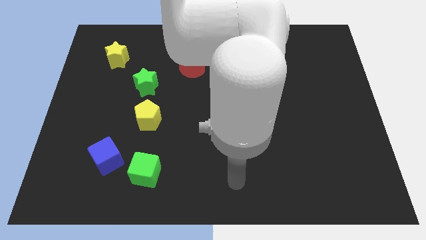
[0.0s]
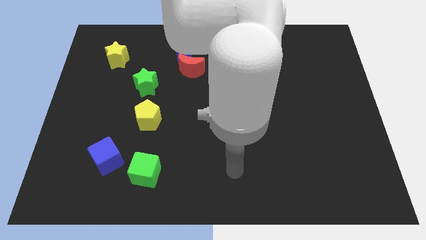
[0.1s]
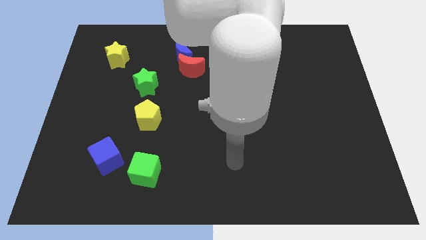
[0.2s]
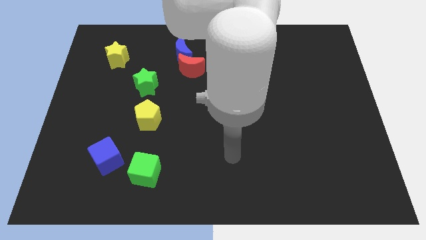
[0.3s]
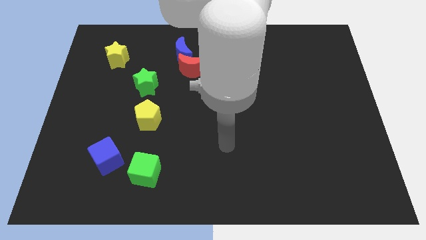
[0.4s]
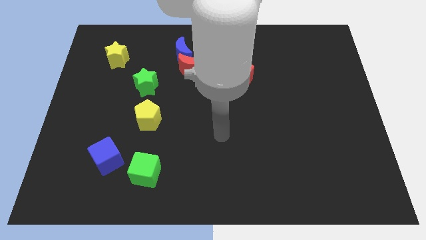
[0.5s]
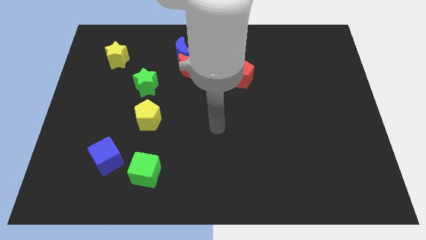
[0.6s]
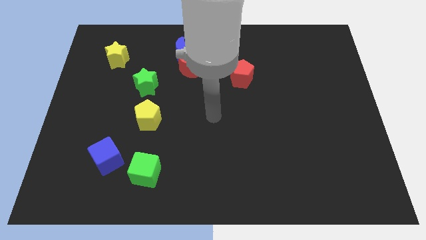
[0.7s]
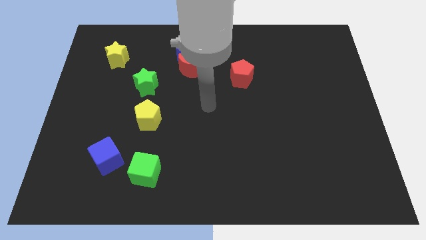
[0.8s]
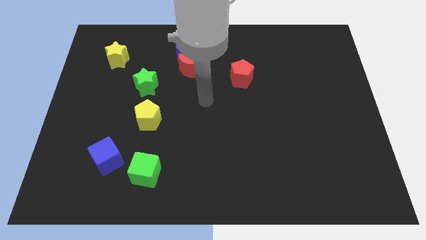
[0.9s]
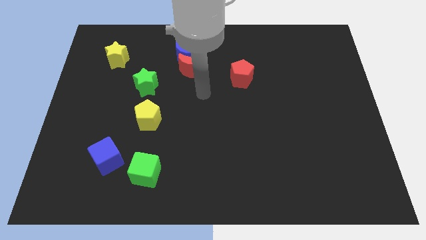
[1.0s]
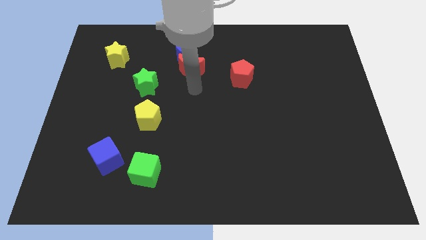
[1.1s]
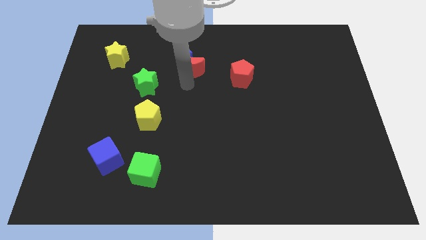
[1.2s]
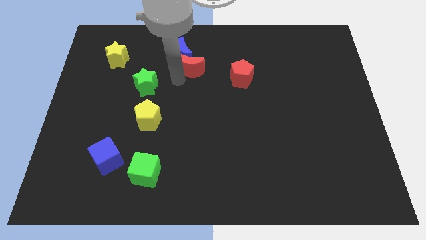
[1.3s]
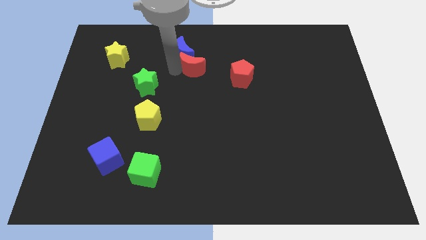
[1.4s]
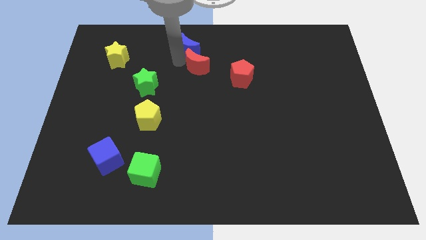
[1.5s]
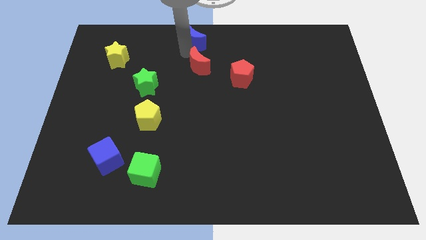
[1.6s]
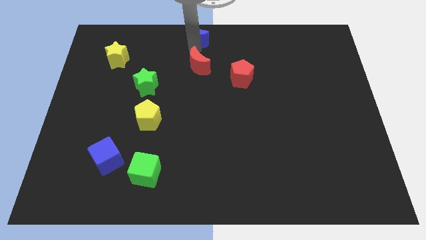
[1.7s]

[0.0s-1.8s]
pull the red moon apart from the blue moon

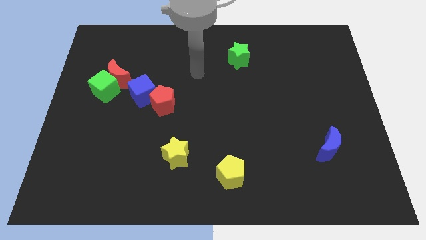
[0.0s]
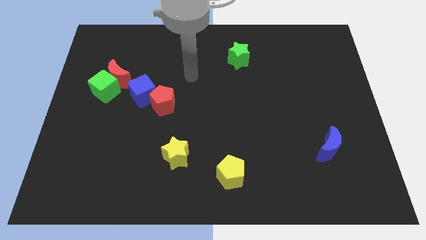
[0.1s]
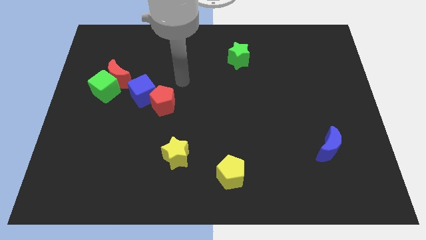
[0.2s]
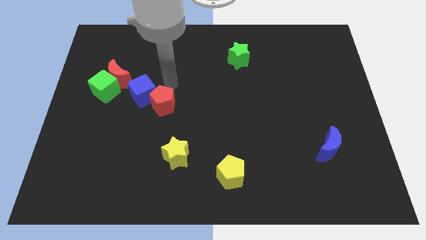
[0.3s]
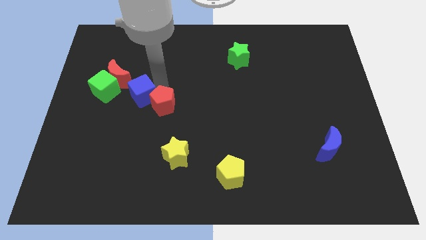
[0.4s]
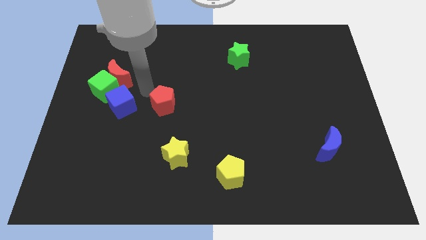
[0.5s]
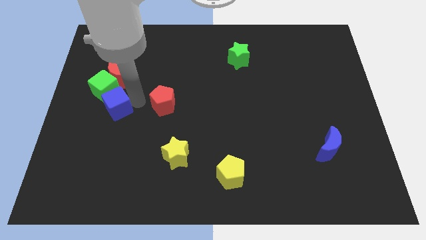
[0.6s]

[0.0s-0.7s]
separate the red pentagon from the blue cube

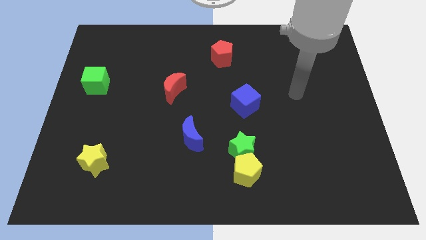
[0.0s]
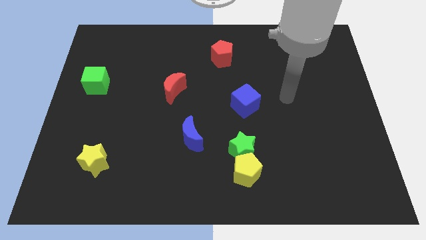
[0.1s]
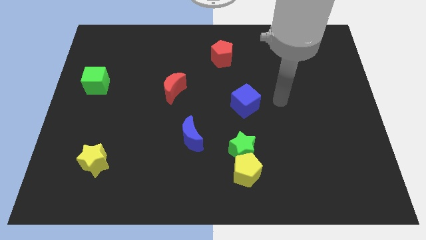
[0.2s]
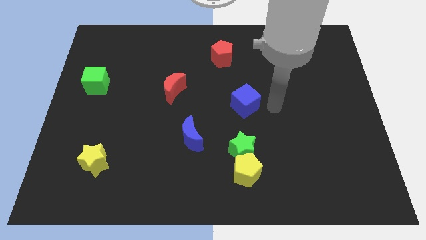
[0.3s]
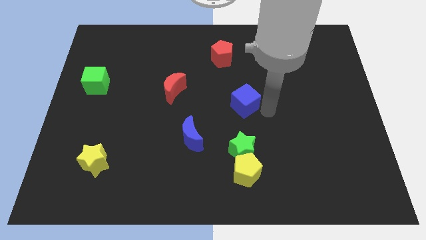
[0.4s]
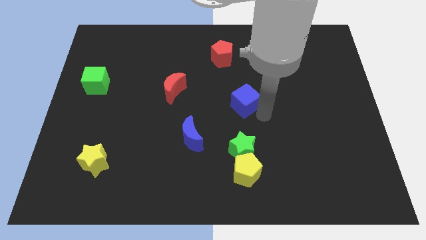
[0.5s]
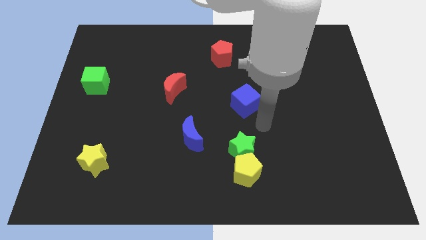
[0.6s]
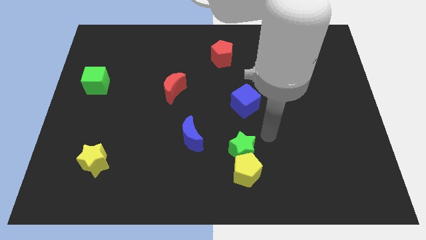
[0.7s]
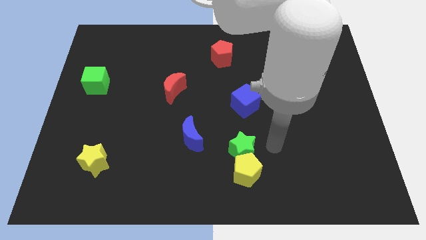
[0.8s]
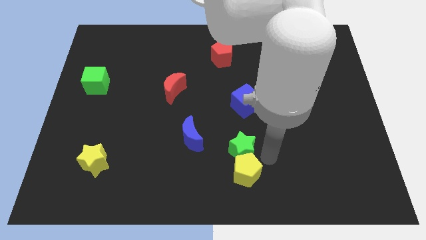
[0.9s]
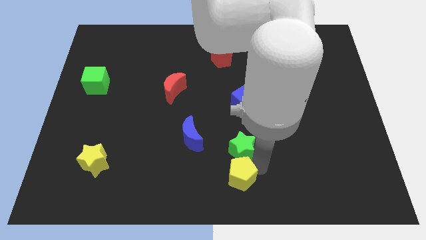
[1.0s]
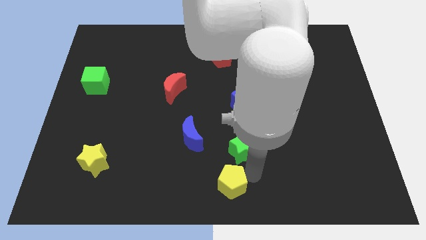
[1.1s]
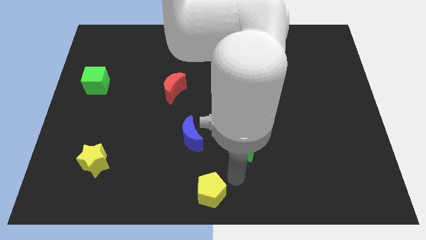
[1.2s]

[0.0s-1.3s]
pull the green star apart from the yellow pentagon

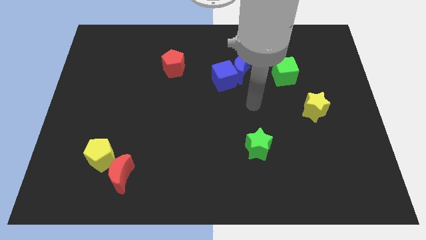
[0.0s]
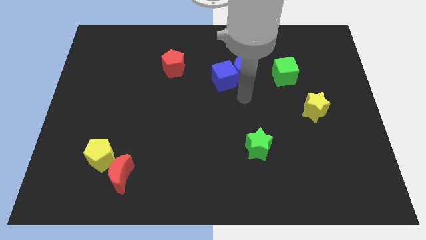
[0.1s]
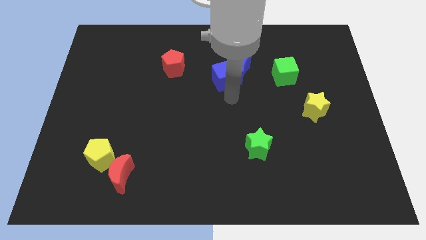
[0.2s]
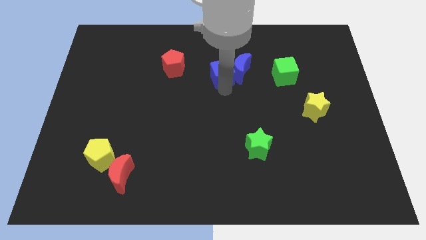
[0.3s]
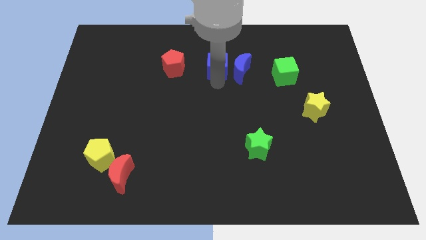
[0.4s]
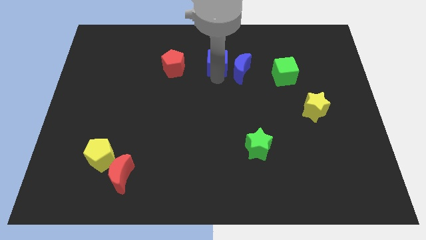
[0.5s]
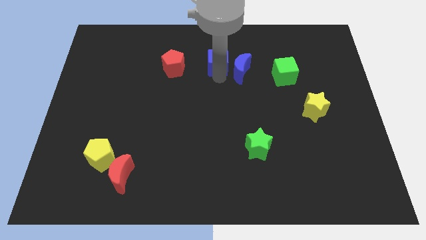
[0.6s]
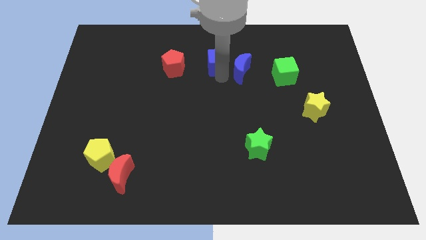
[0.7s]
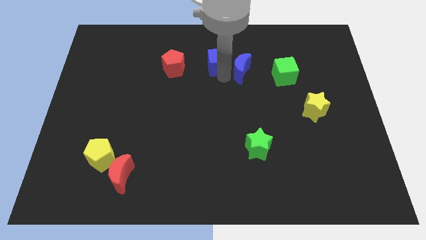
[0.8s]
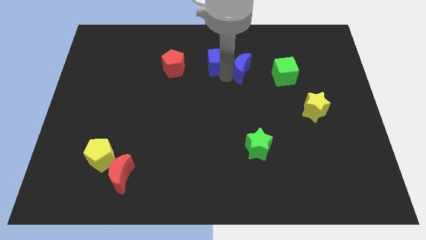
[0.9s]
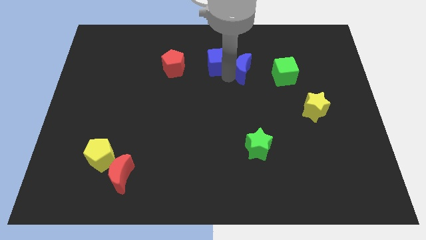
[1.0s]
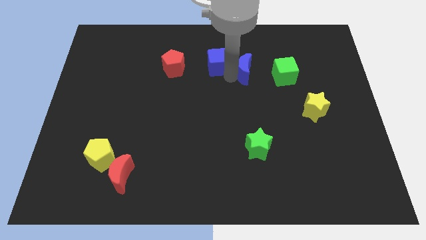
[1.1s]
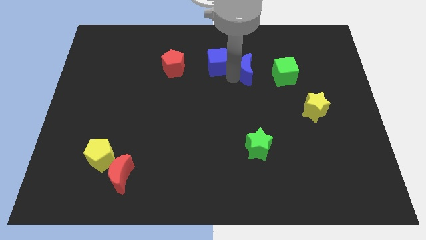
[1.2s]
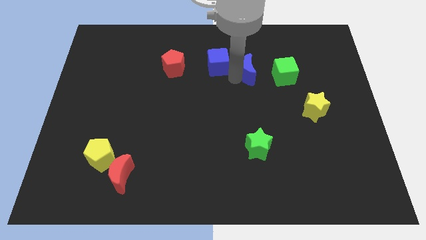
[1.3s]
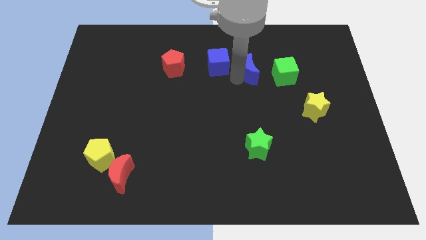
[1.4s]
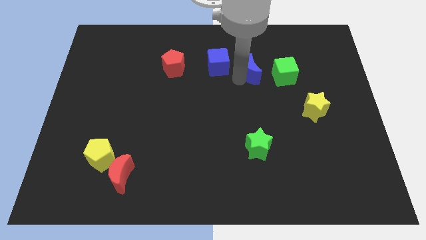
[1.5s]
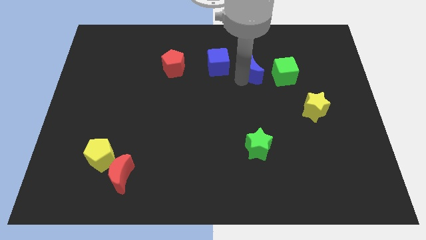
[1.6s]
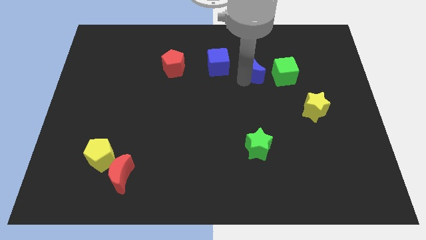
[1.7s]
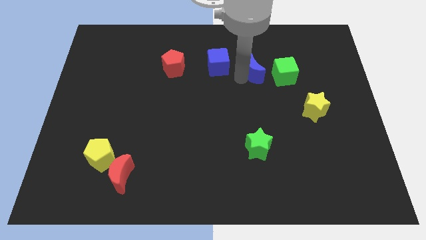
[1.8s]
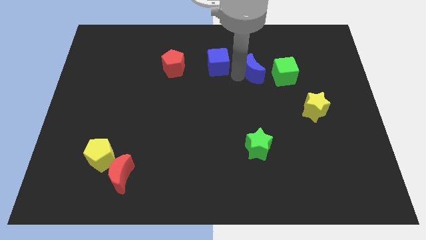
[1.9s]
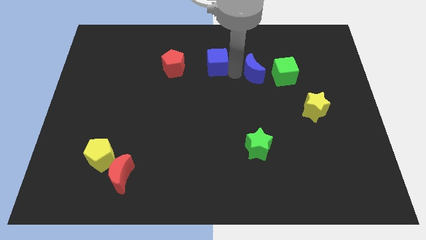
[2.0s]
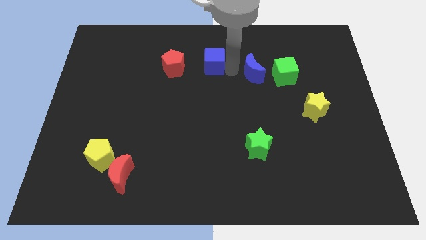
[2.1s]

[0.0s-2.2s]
separate the blue moon from the blue cube

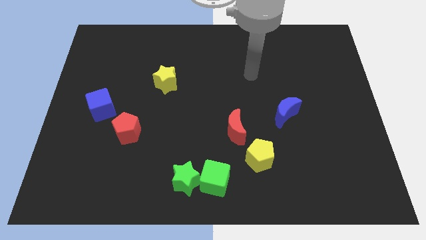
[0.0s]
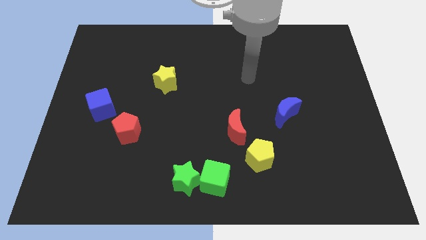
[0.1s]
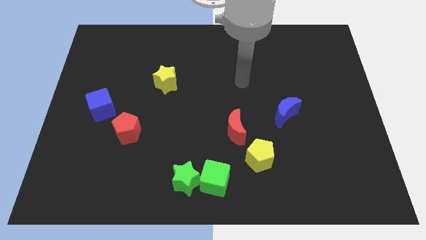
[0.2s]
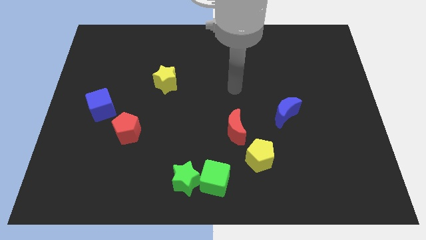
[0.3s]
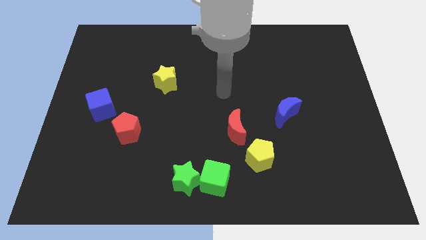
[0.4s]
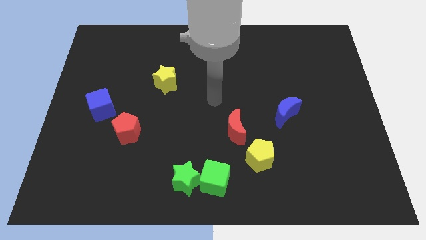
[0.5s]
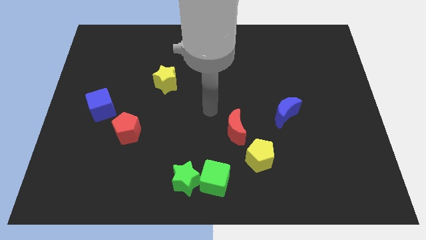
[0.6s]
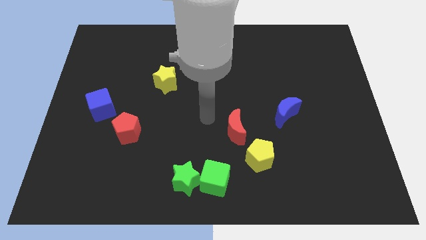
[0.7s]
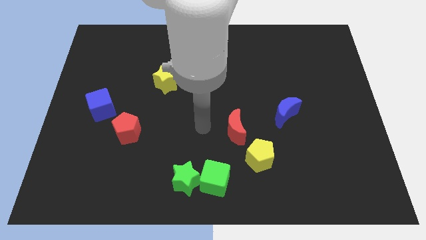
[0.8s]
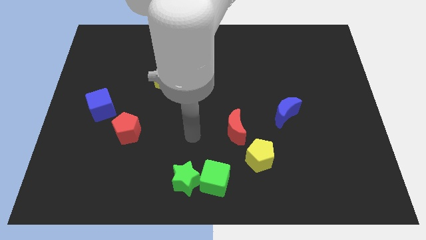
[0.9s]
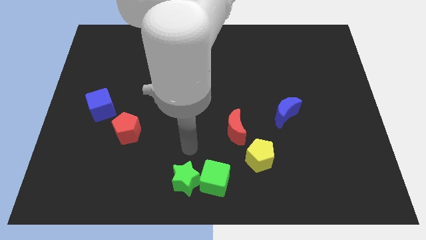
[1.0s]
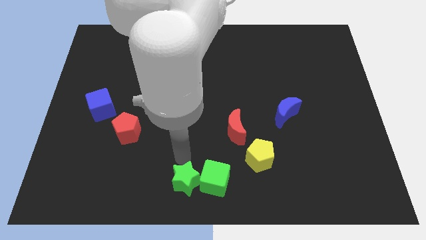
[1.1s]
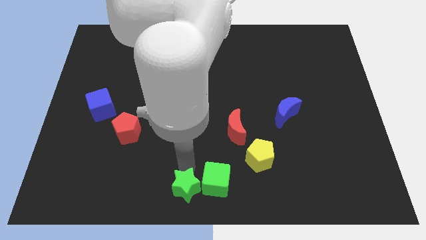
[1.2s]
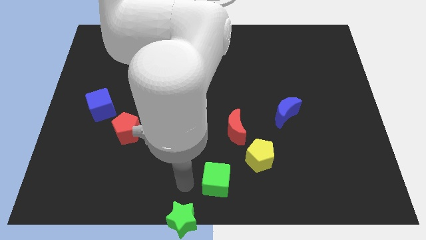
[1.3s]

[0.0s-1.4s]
separate the green cube from the green star

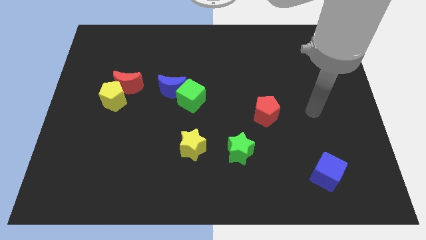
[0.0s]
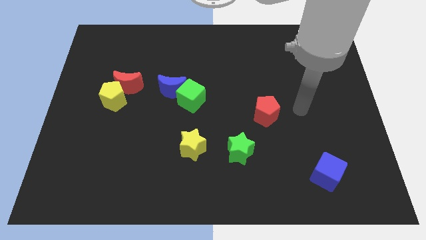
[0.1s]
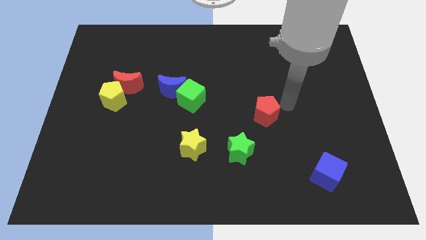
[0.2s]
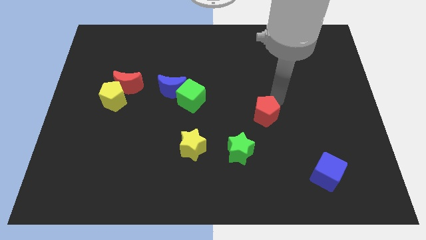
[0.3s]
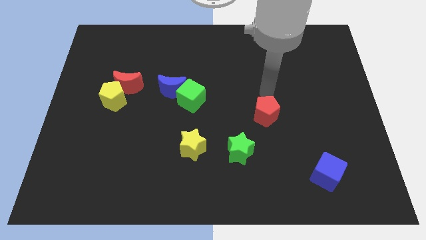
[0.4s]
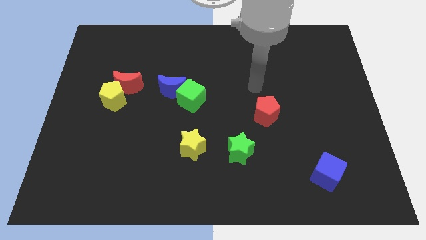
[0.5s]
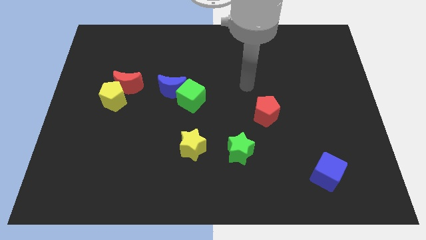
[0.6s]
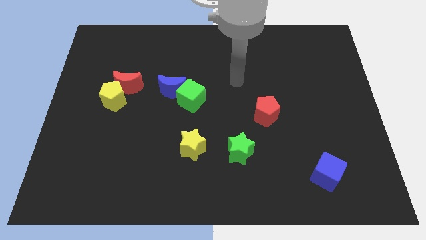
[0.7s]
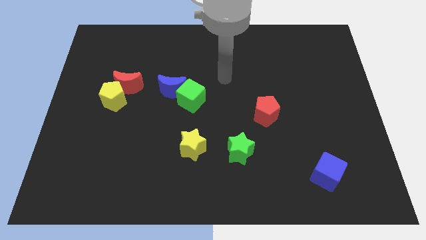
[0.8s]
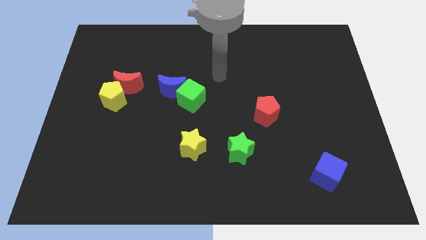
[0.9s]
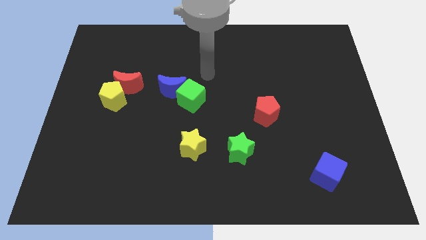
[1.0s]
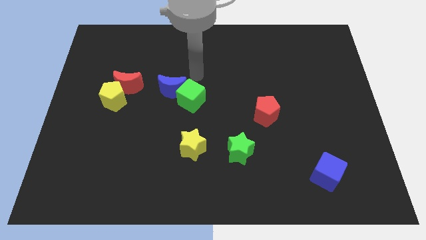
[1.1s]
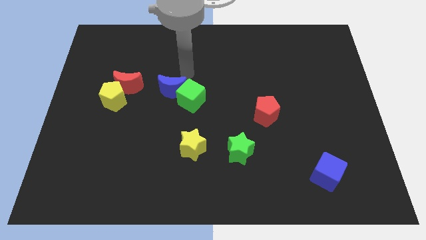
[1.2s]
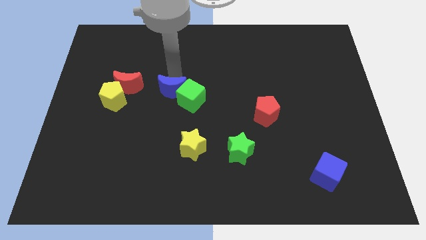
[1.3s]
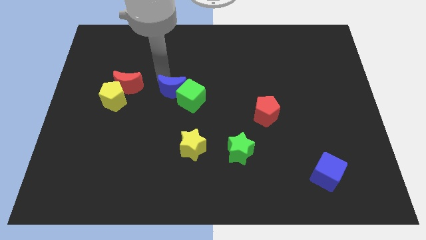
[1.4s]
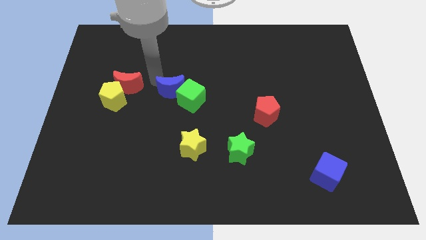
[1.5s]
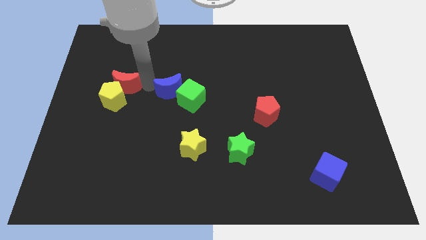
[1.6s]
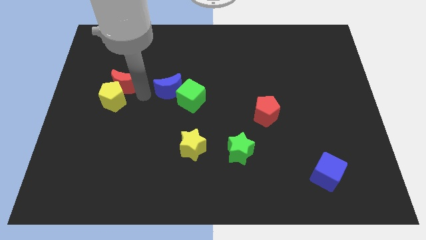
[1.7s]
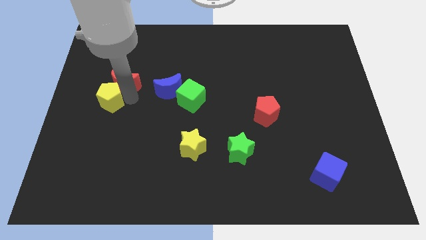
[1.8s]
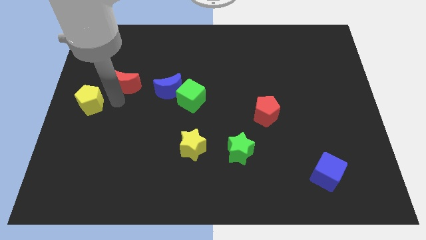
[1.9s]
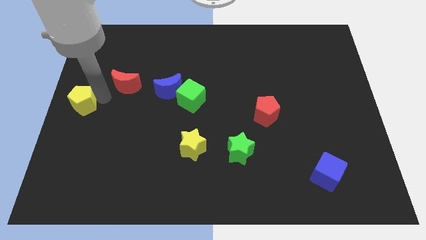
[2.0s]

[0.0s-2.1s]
separate the red moon from the yellow pentagon
